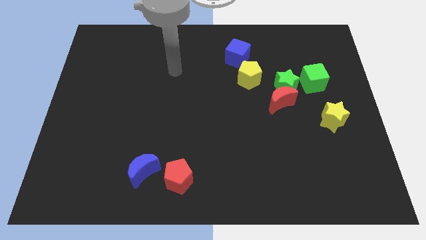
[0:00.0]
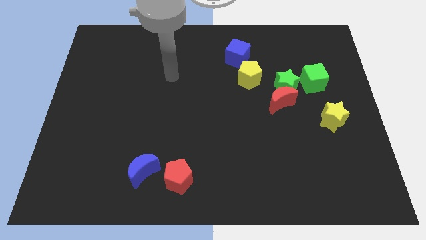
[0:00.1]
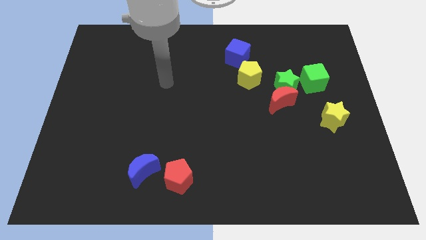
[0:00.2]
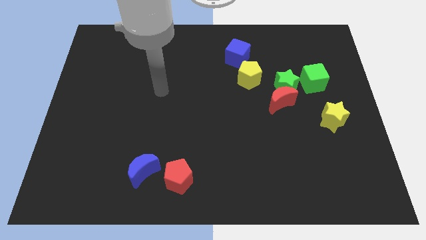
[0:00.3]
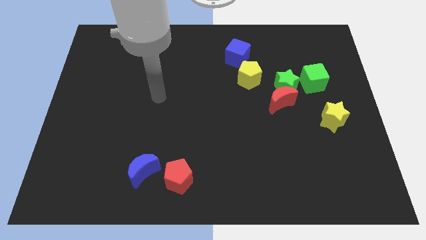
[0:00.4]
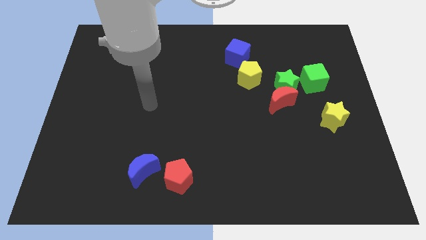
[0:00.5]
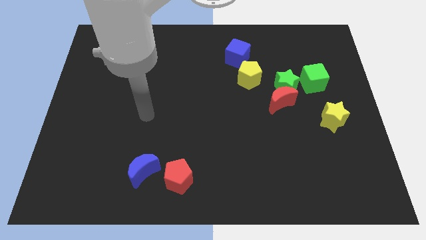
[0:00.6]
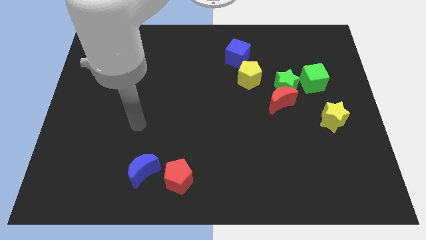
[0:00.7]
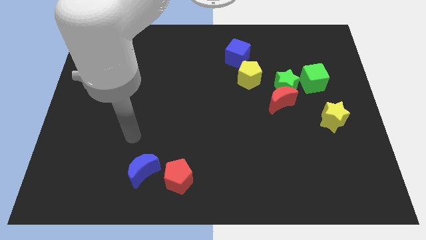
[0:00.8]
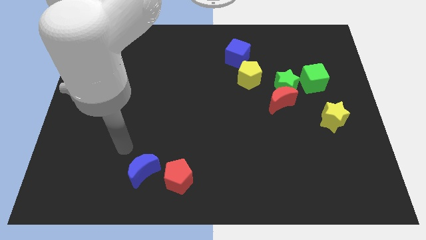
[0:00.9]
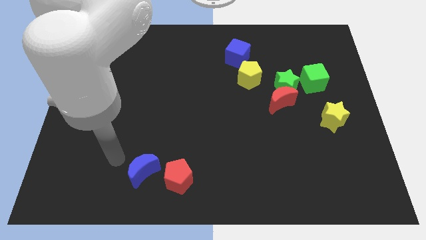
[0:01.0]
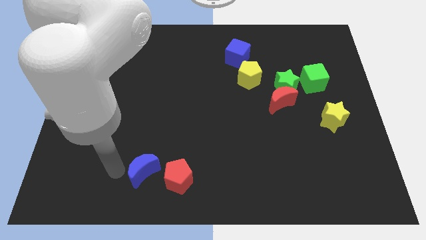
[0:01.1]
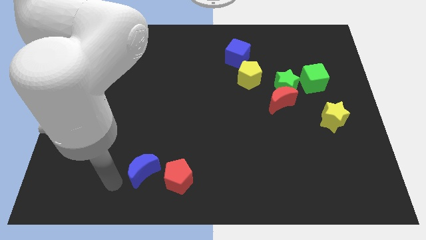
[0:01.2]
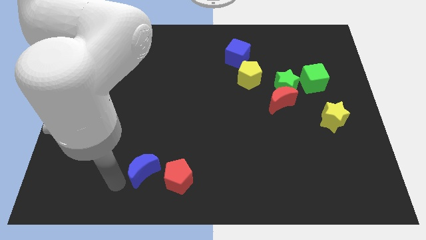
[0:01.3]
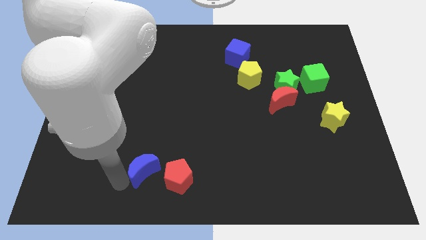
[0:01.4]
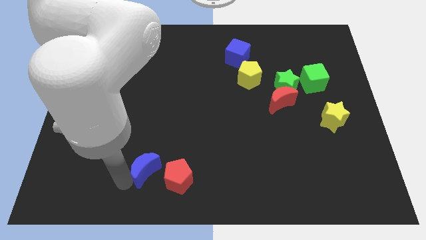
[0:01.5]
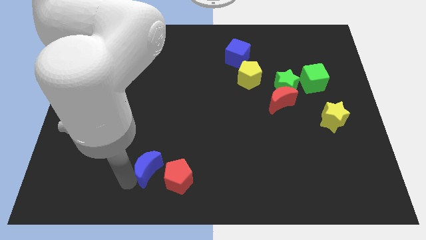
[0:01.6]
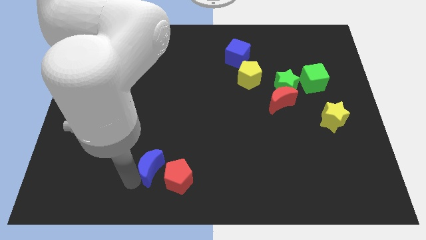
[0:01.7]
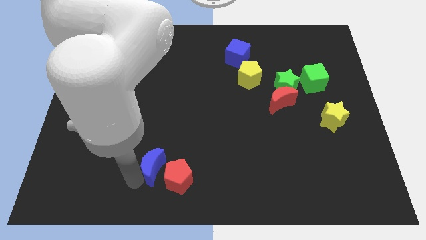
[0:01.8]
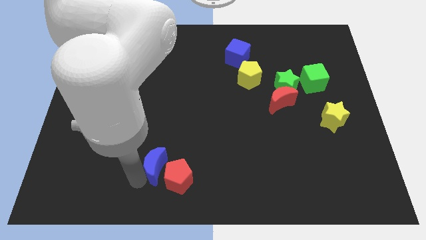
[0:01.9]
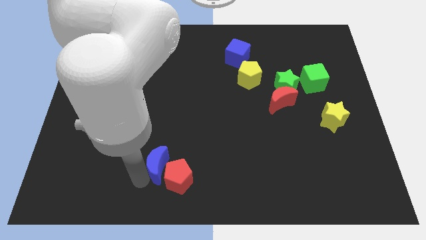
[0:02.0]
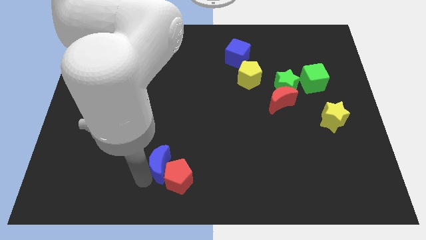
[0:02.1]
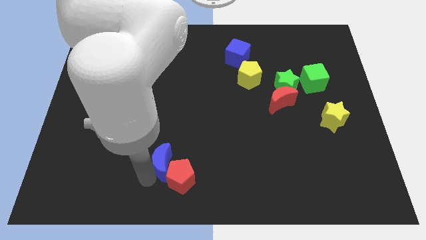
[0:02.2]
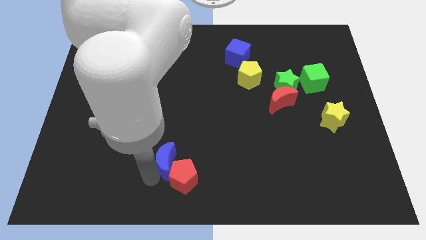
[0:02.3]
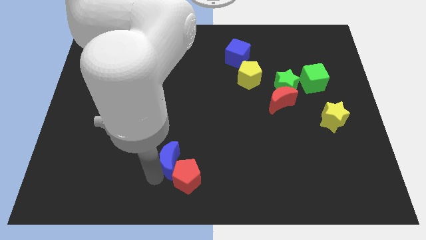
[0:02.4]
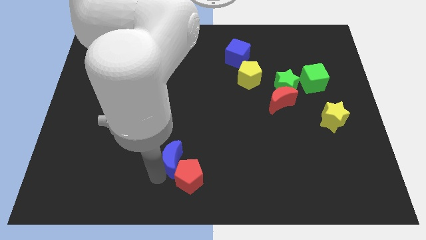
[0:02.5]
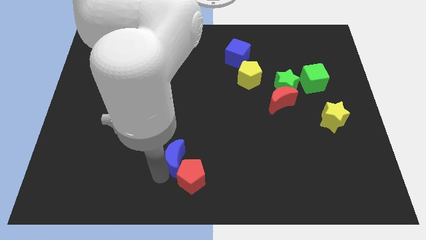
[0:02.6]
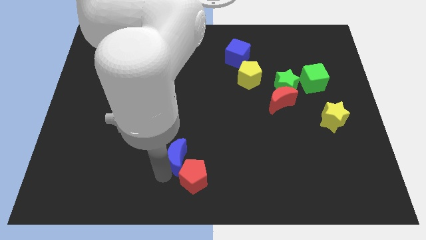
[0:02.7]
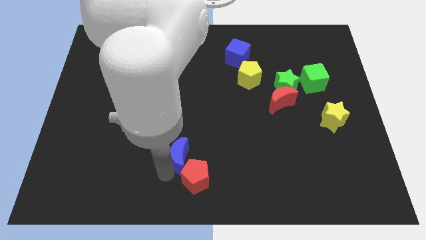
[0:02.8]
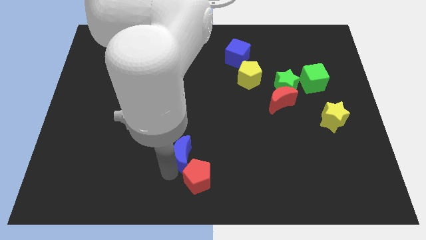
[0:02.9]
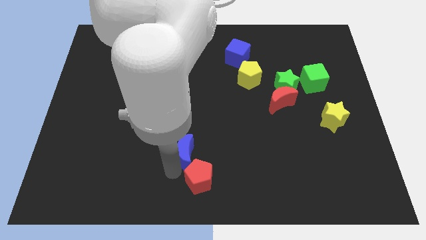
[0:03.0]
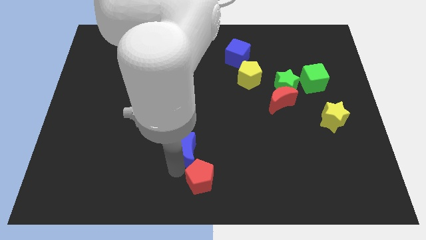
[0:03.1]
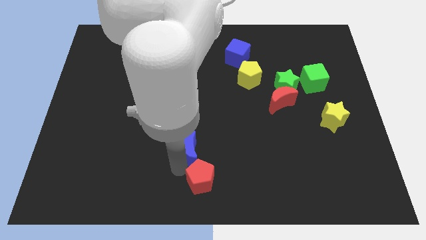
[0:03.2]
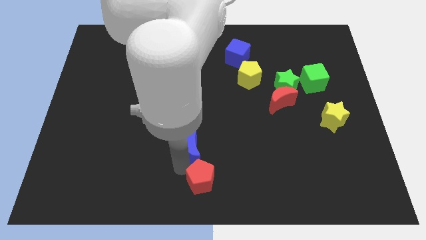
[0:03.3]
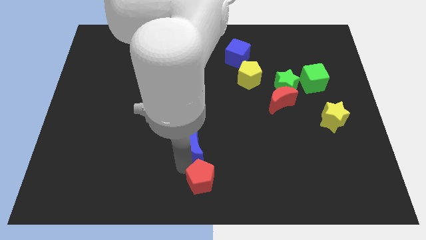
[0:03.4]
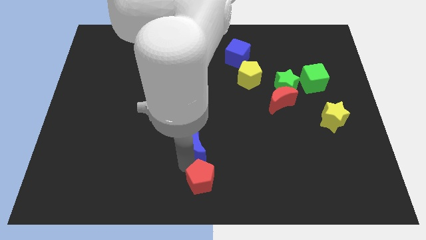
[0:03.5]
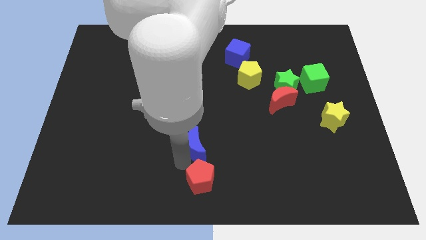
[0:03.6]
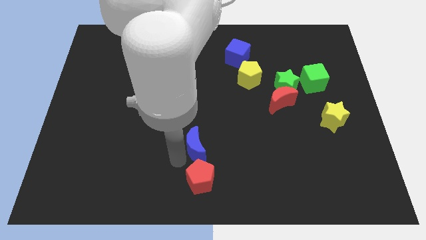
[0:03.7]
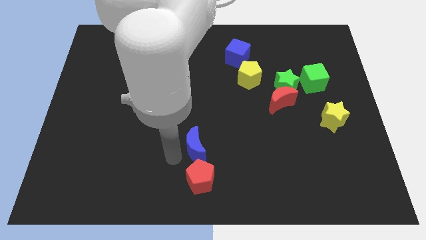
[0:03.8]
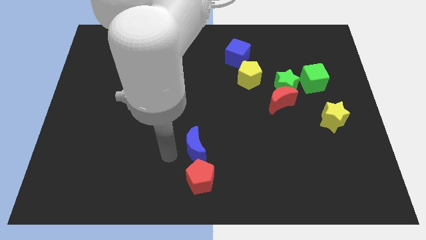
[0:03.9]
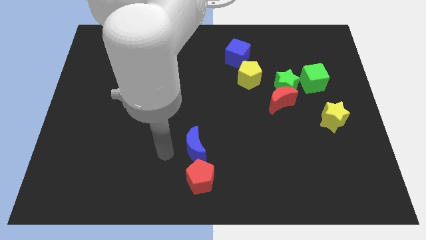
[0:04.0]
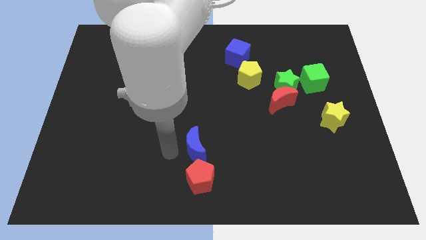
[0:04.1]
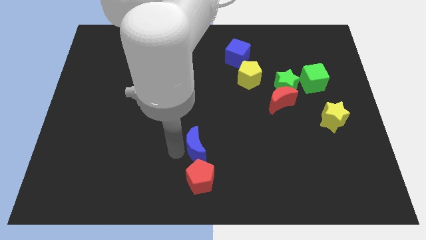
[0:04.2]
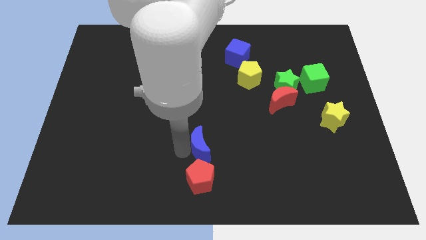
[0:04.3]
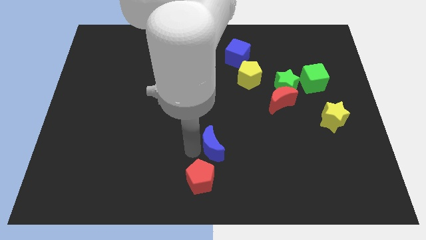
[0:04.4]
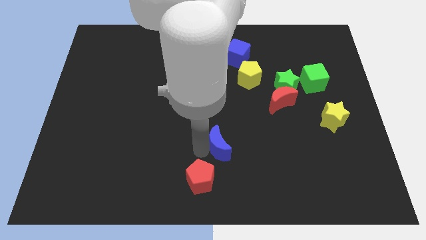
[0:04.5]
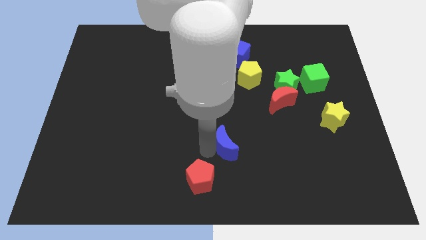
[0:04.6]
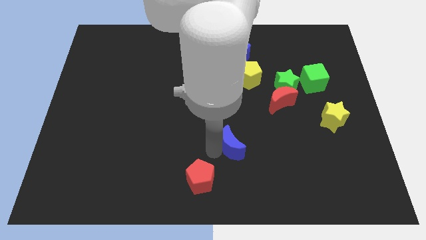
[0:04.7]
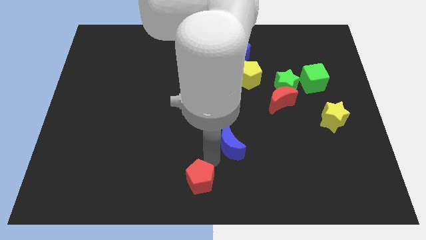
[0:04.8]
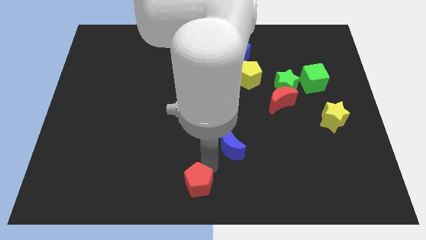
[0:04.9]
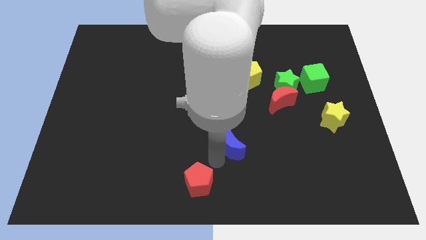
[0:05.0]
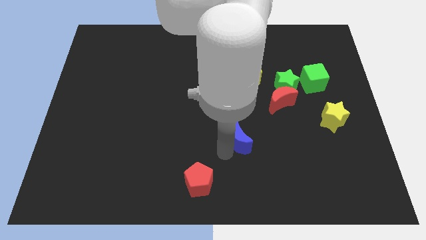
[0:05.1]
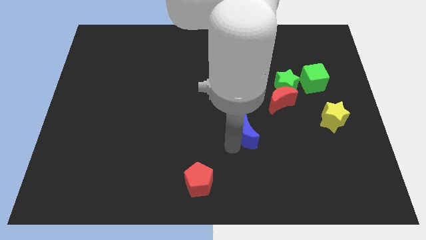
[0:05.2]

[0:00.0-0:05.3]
push the blue moon diagonally down and to the left of the red moon

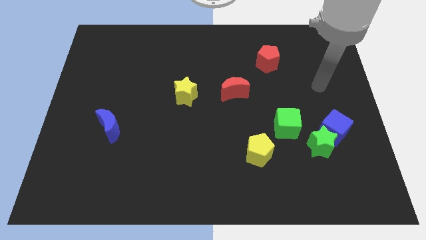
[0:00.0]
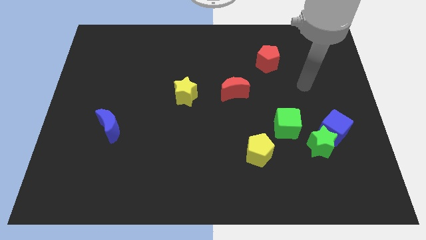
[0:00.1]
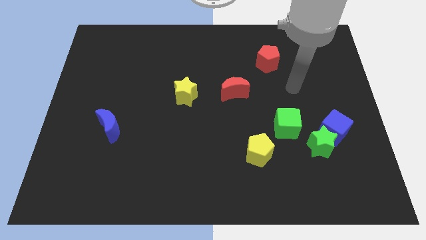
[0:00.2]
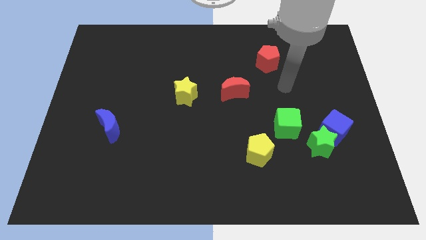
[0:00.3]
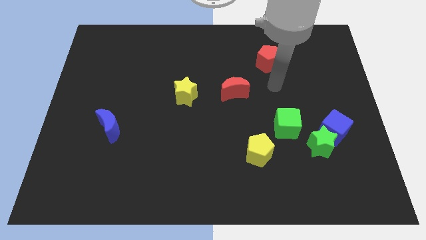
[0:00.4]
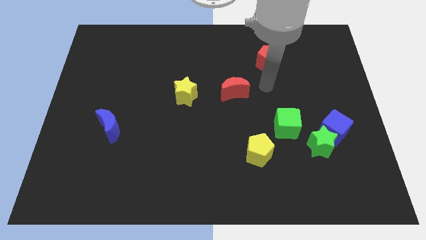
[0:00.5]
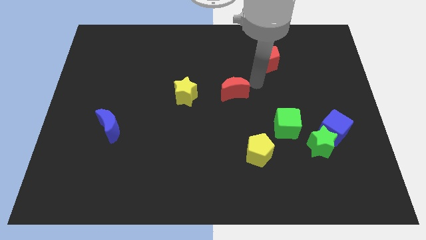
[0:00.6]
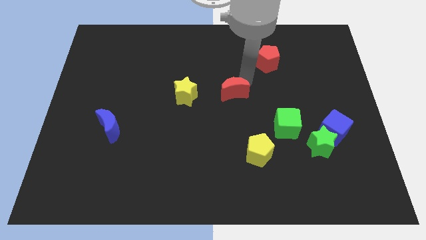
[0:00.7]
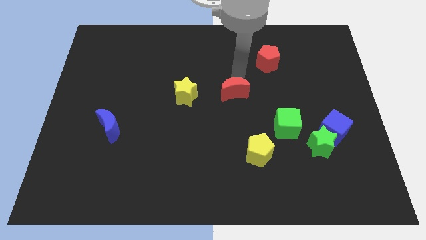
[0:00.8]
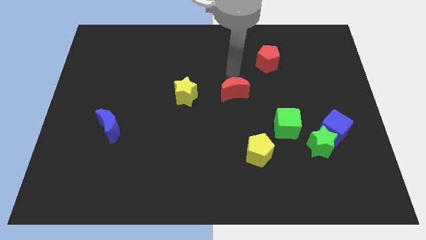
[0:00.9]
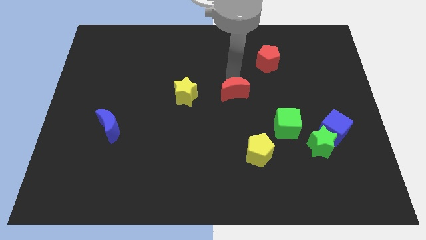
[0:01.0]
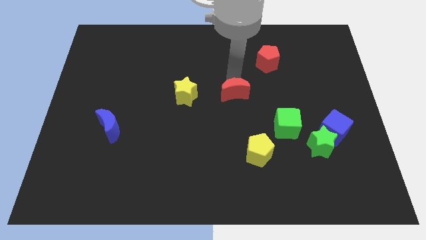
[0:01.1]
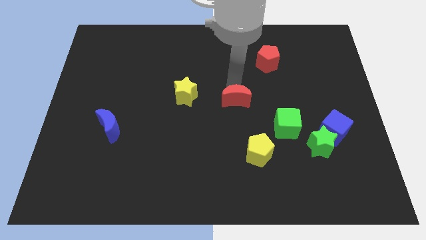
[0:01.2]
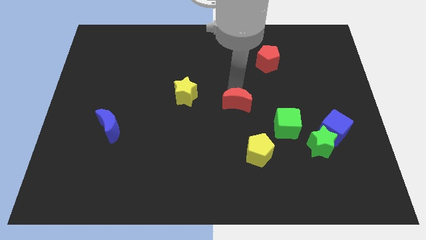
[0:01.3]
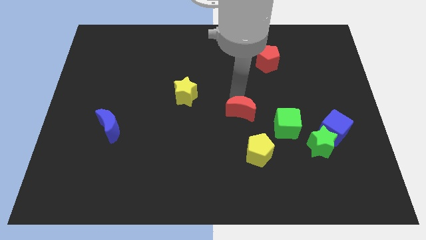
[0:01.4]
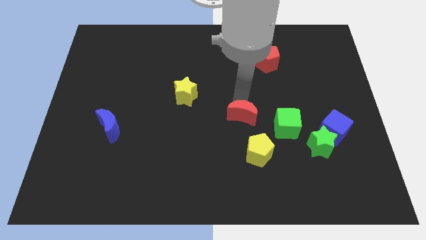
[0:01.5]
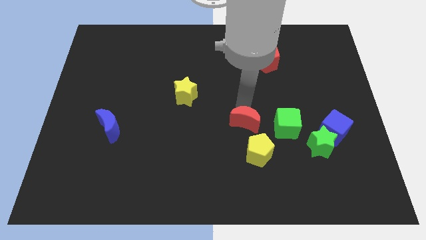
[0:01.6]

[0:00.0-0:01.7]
push the red moon to the top left side of the yellow pentagon
